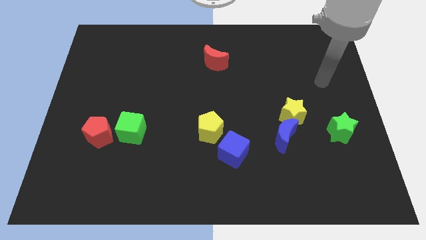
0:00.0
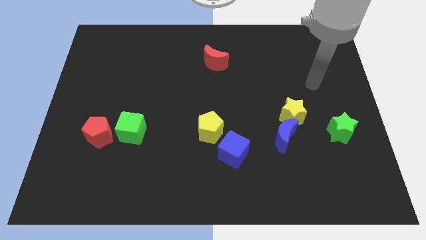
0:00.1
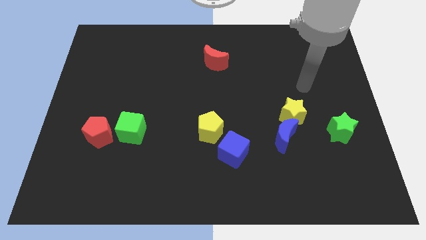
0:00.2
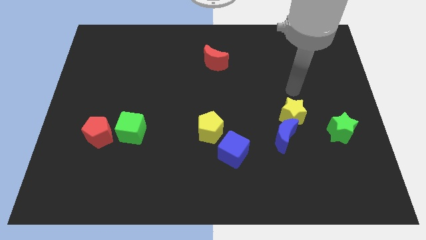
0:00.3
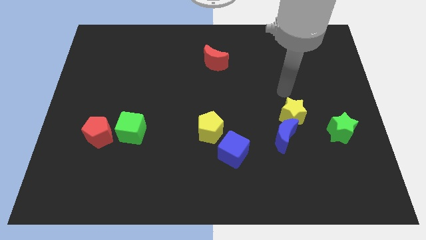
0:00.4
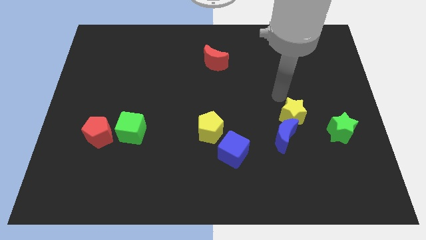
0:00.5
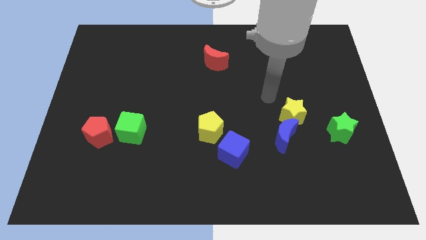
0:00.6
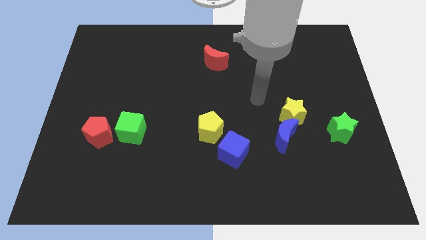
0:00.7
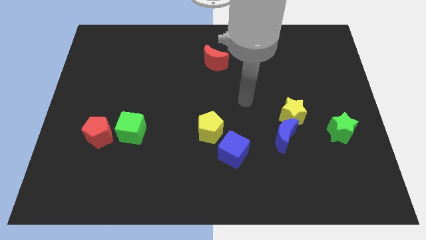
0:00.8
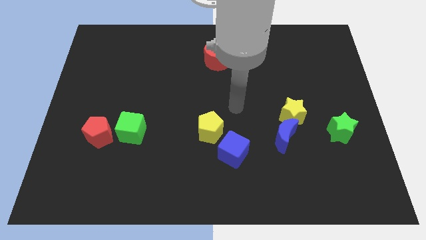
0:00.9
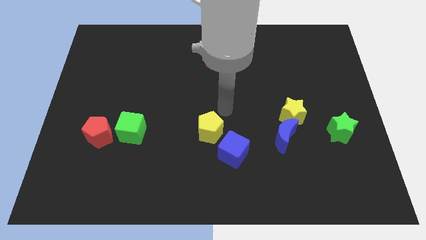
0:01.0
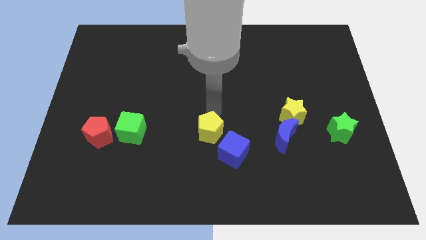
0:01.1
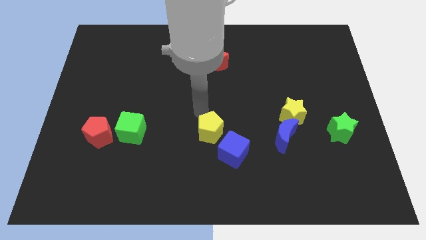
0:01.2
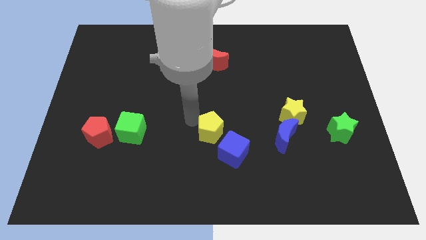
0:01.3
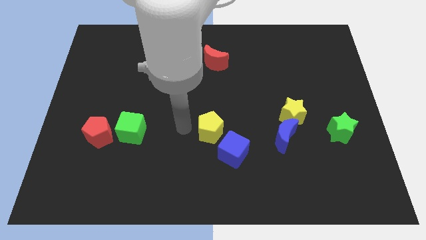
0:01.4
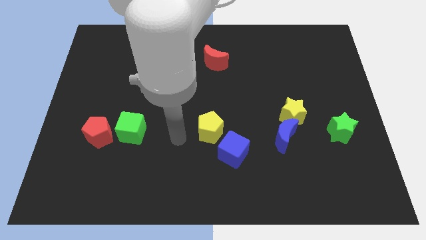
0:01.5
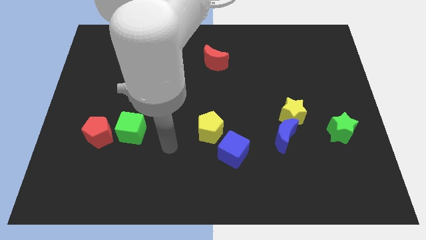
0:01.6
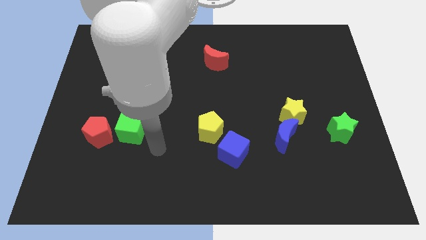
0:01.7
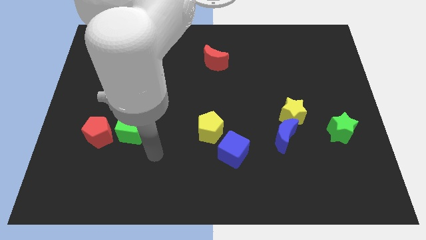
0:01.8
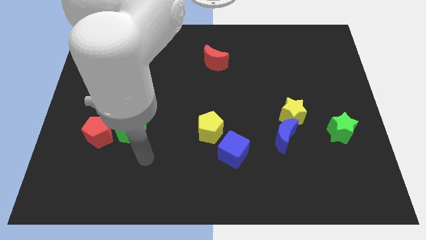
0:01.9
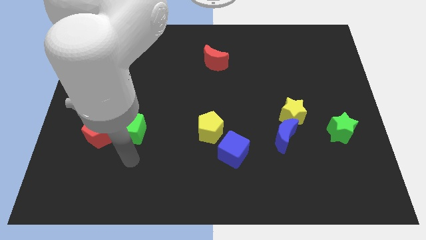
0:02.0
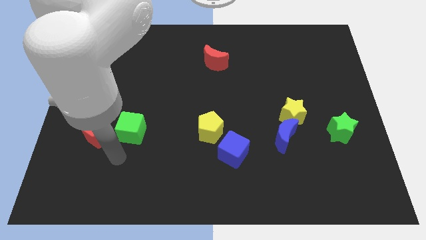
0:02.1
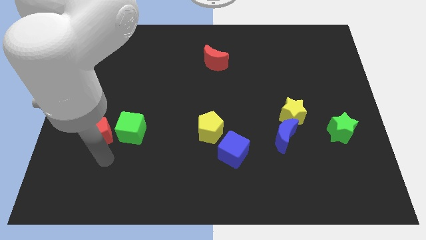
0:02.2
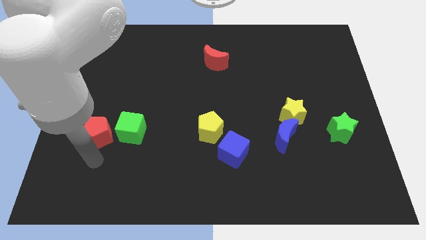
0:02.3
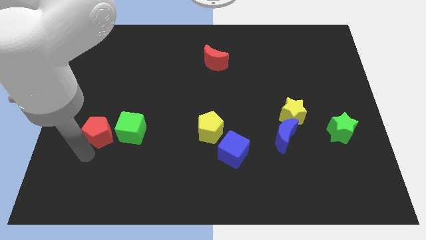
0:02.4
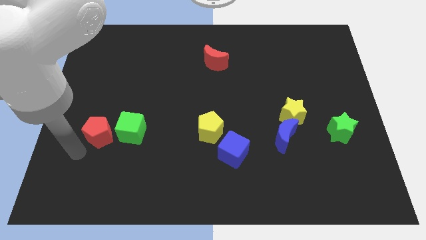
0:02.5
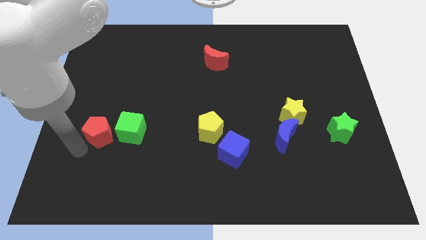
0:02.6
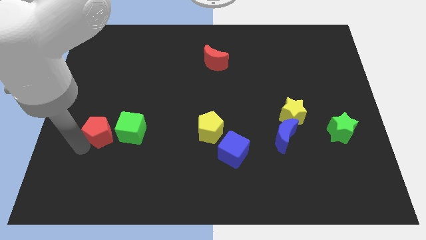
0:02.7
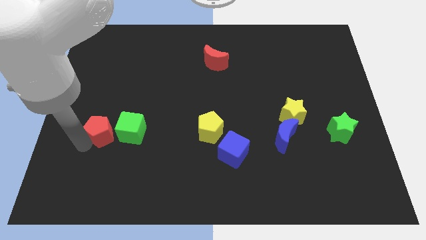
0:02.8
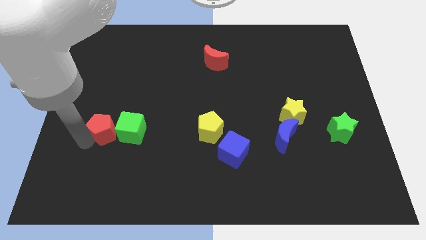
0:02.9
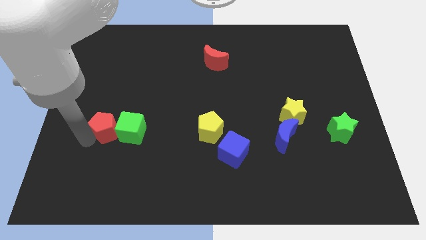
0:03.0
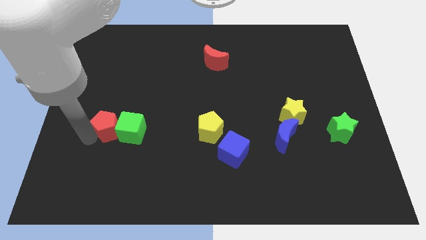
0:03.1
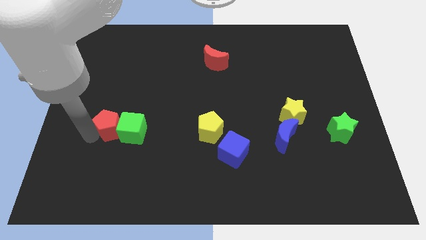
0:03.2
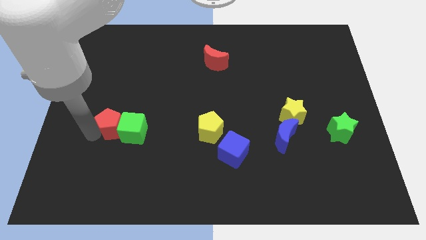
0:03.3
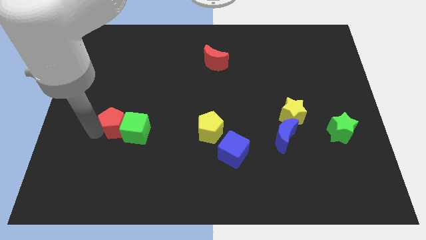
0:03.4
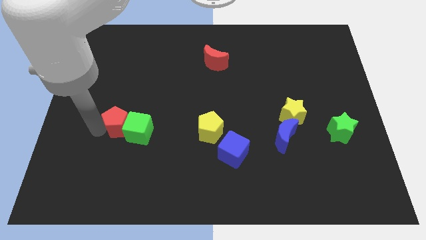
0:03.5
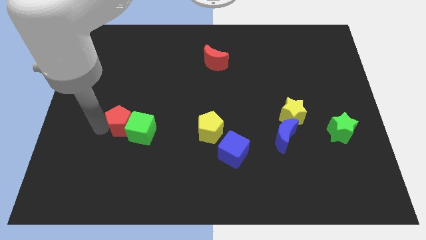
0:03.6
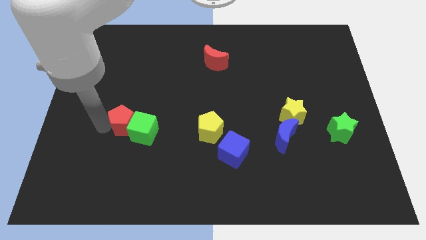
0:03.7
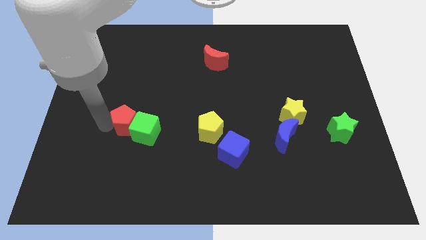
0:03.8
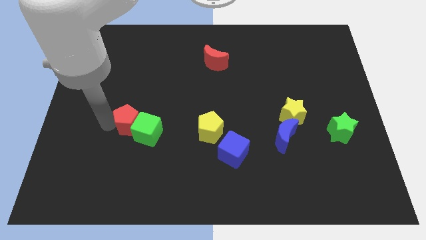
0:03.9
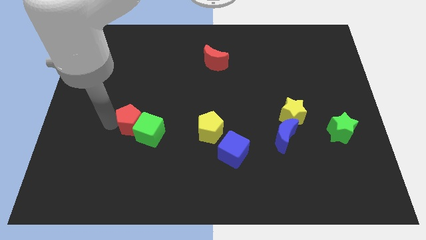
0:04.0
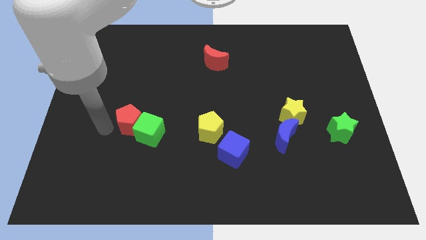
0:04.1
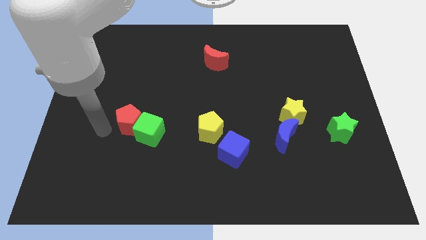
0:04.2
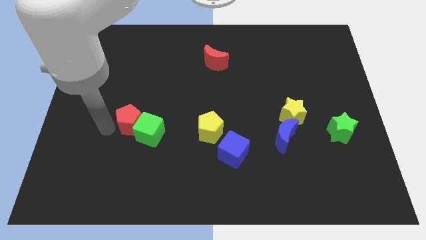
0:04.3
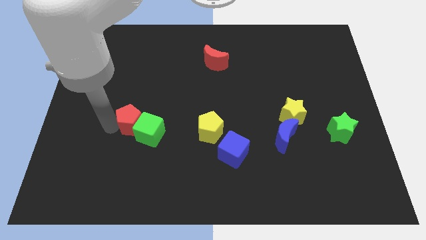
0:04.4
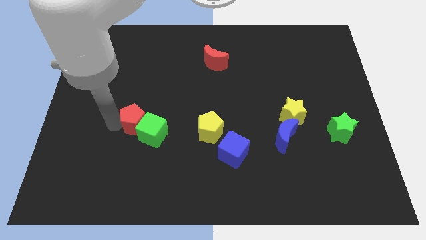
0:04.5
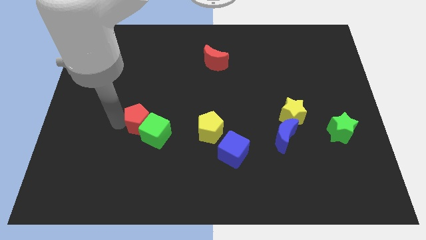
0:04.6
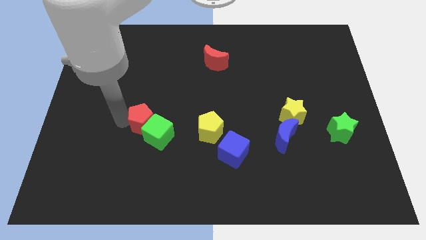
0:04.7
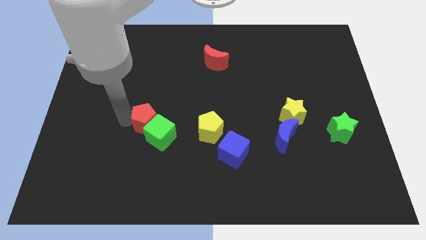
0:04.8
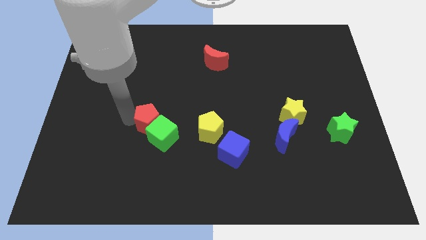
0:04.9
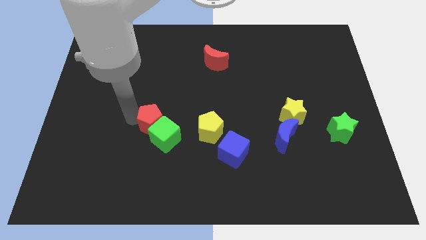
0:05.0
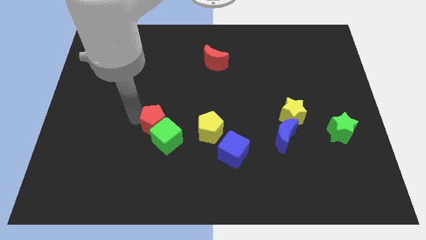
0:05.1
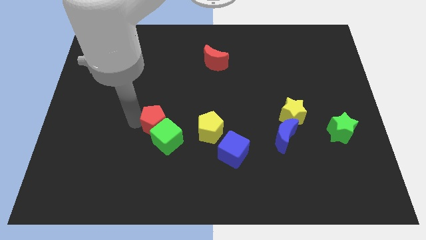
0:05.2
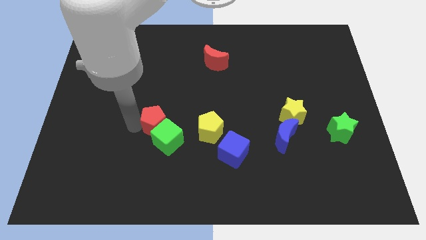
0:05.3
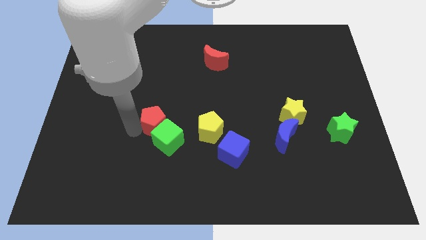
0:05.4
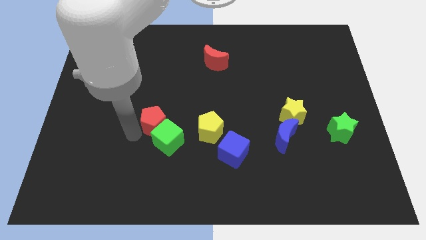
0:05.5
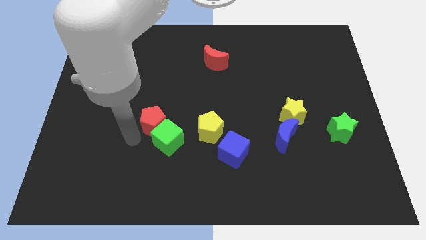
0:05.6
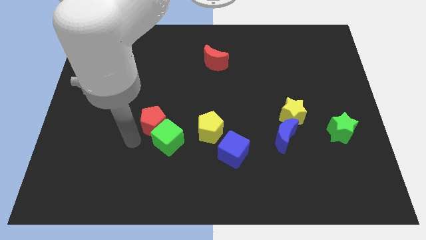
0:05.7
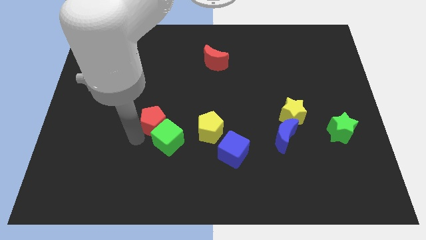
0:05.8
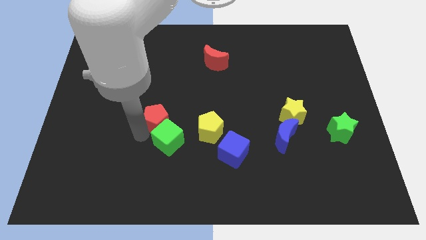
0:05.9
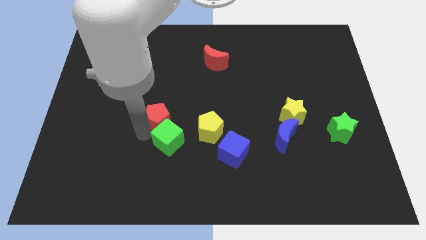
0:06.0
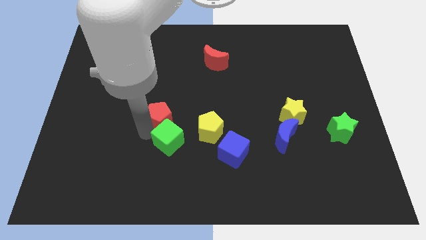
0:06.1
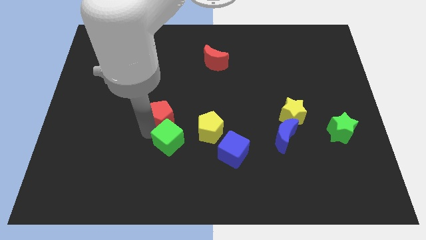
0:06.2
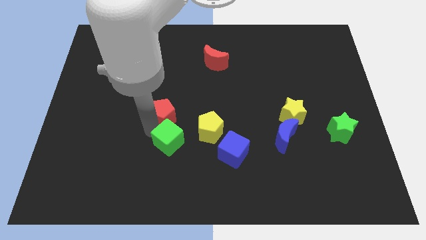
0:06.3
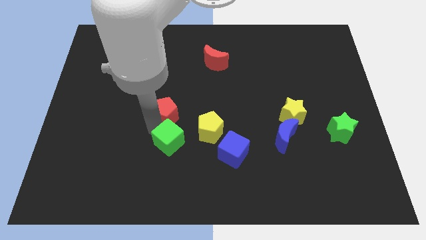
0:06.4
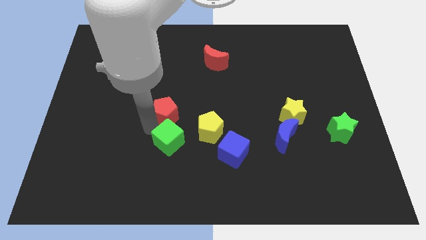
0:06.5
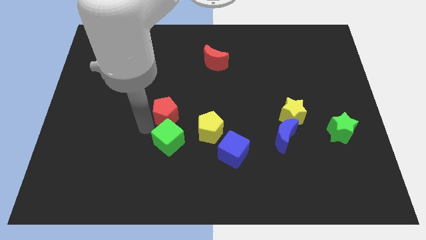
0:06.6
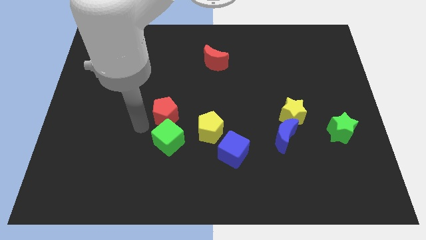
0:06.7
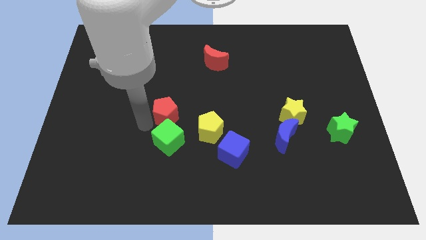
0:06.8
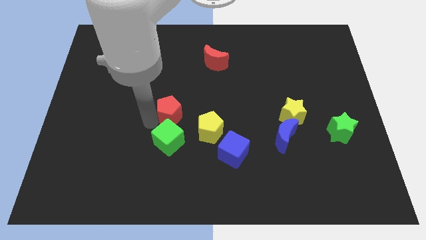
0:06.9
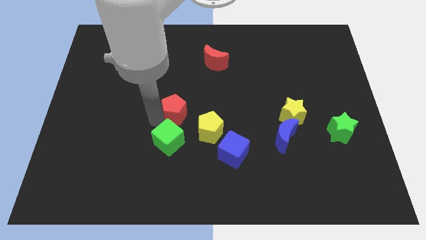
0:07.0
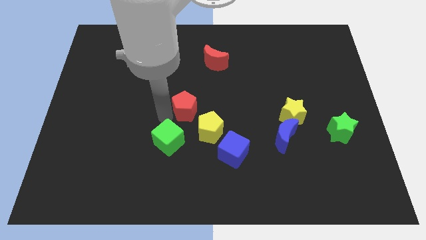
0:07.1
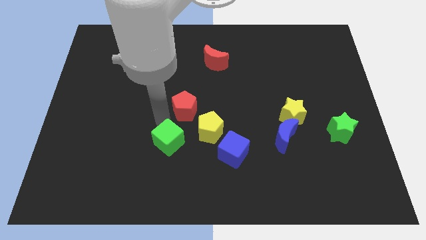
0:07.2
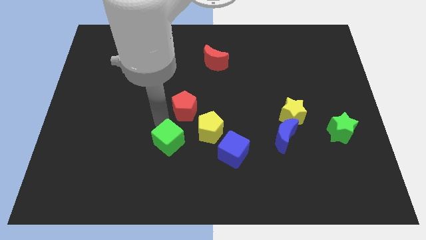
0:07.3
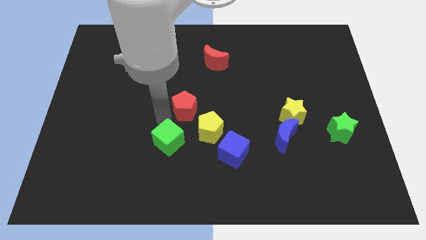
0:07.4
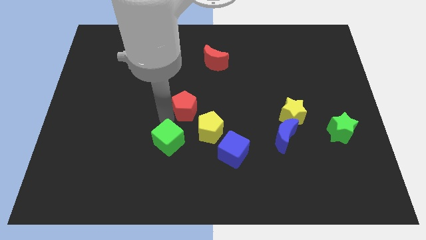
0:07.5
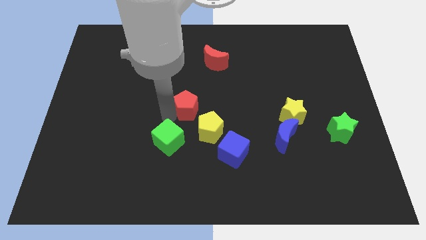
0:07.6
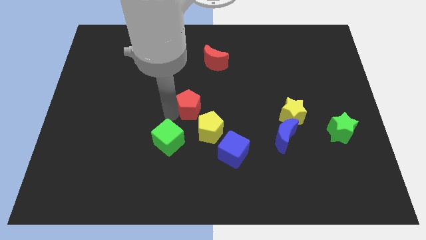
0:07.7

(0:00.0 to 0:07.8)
move the red pentagon to the top of the yellow pentagon
